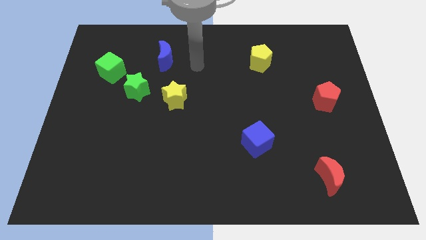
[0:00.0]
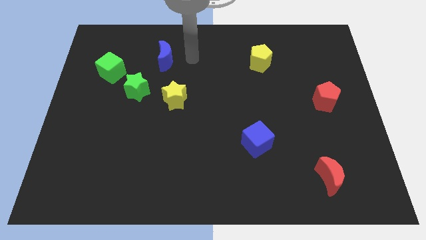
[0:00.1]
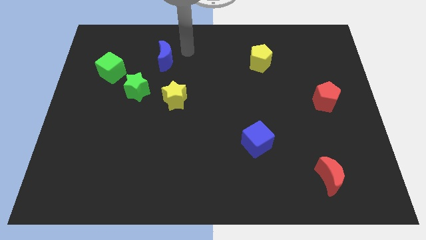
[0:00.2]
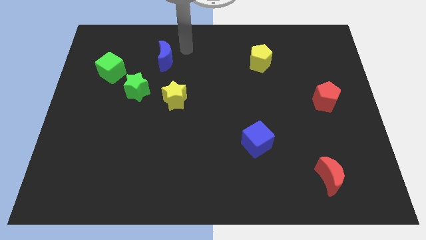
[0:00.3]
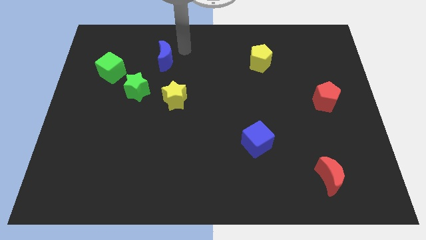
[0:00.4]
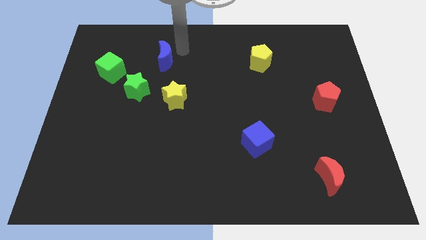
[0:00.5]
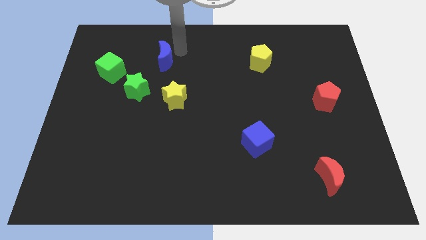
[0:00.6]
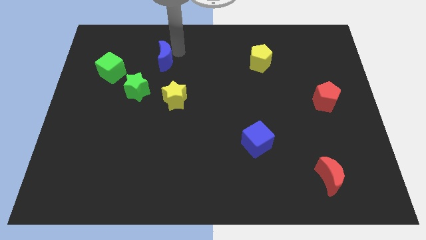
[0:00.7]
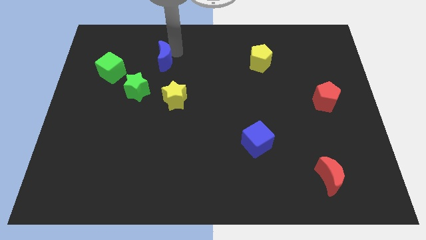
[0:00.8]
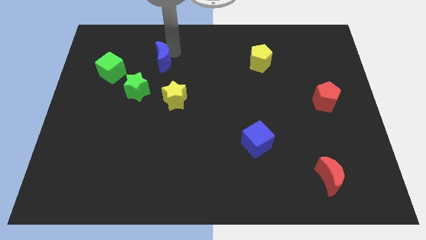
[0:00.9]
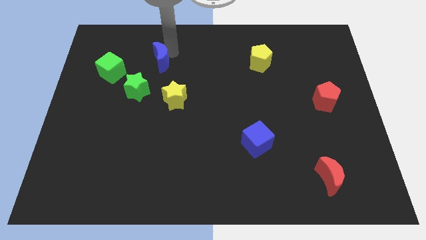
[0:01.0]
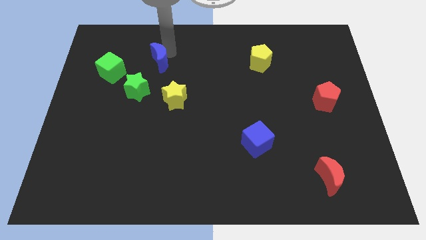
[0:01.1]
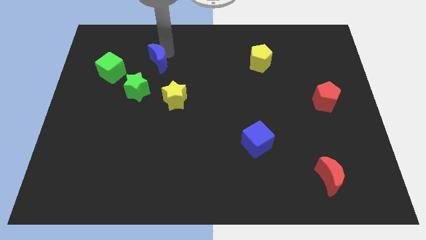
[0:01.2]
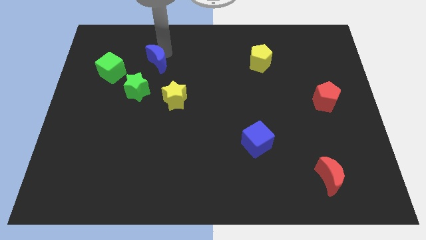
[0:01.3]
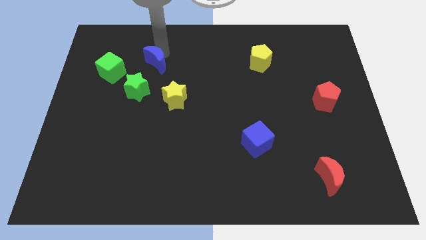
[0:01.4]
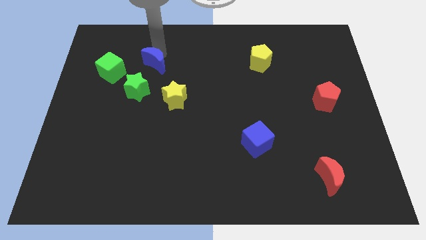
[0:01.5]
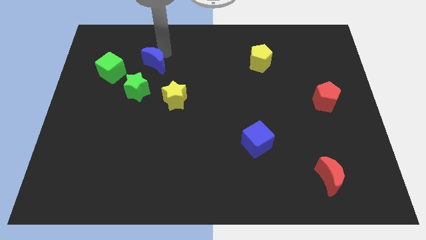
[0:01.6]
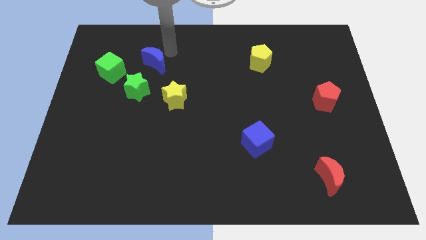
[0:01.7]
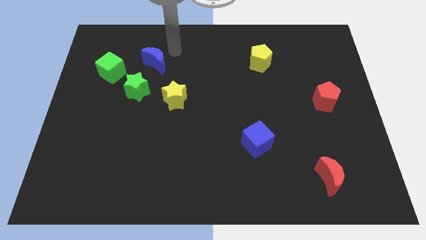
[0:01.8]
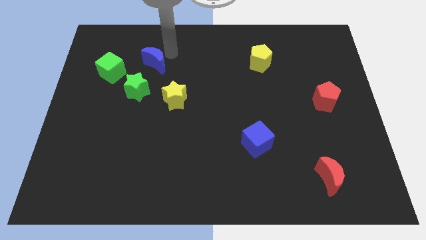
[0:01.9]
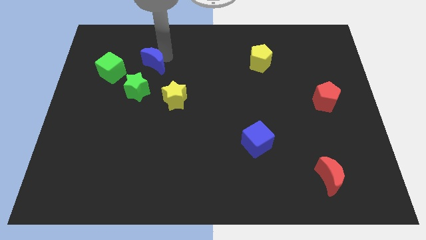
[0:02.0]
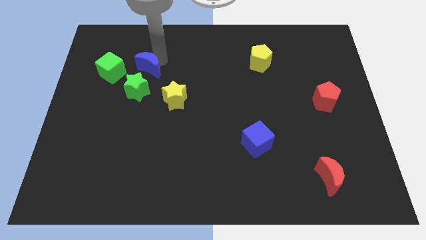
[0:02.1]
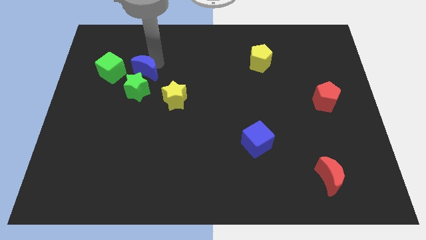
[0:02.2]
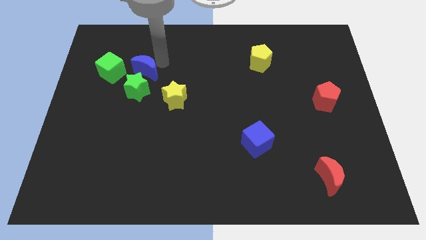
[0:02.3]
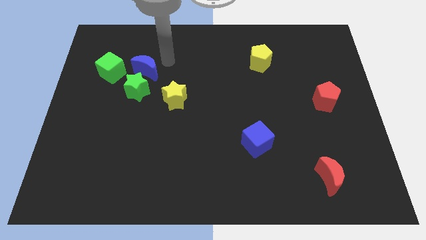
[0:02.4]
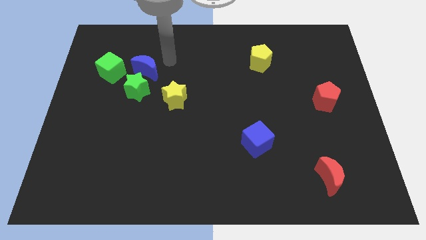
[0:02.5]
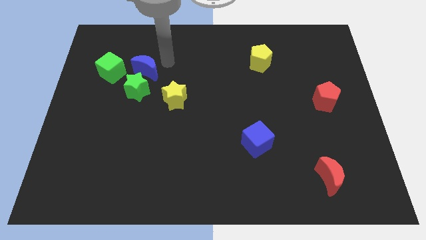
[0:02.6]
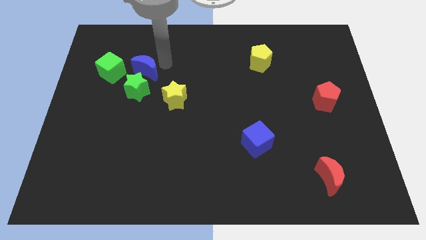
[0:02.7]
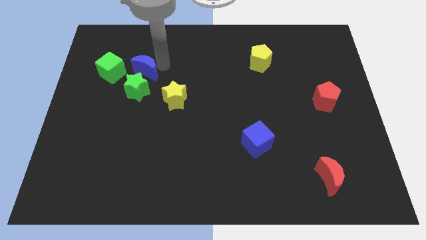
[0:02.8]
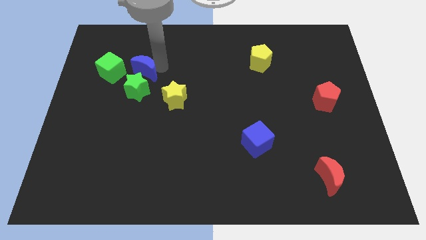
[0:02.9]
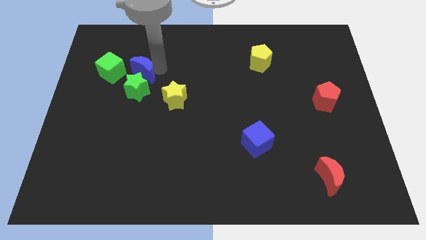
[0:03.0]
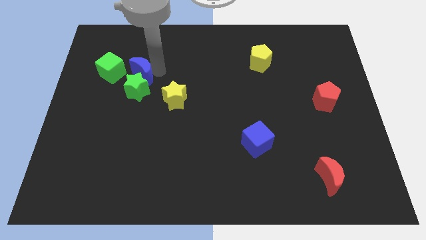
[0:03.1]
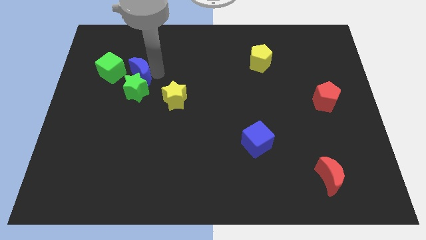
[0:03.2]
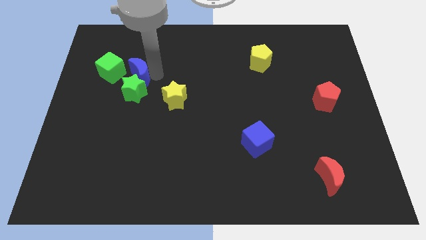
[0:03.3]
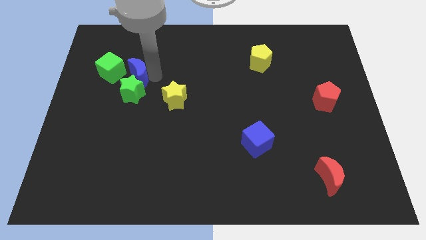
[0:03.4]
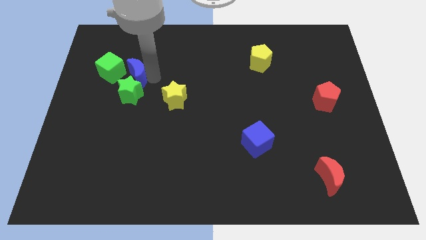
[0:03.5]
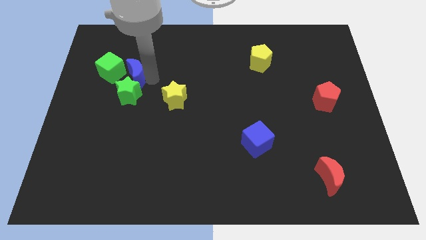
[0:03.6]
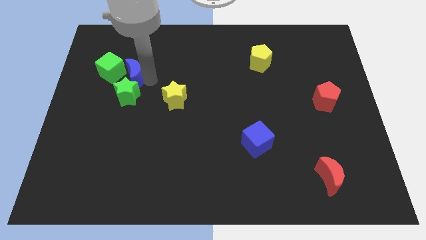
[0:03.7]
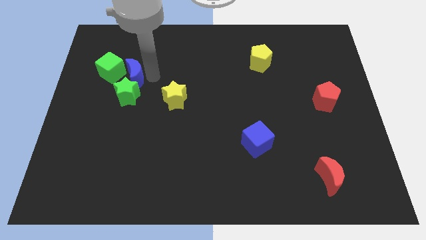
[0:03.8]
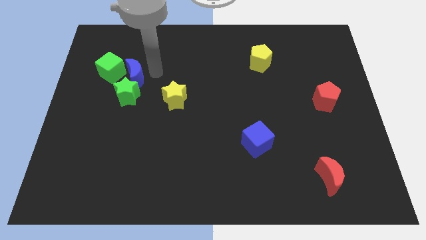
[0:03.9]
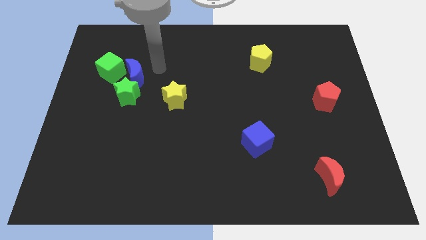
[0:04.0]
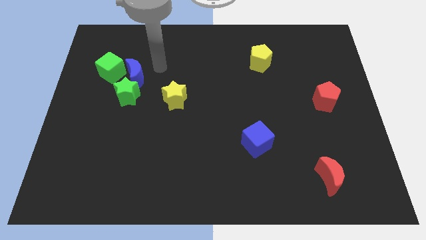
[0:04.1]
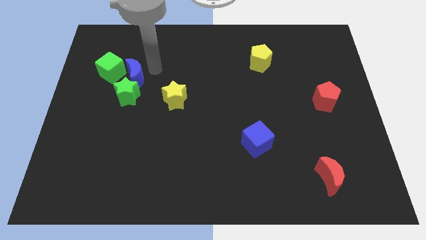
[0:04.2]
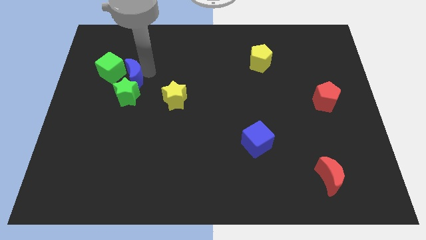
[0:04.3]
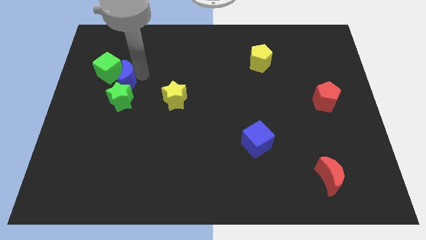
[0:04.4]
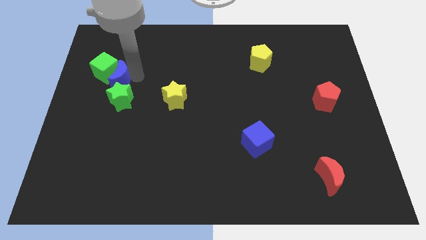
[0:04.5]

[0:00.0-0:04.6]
put the blue moon to the bottom side of the green cube

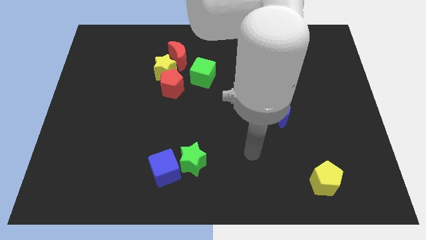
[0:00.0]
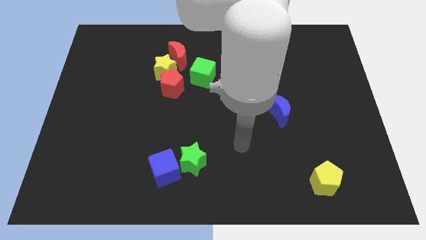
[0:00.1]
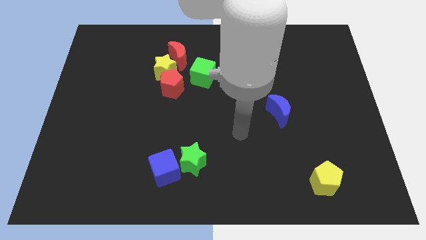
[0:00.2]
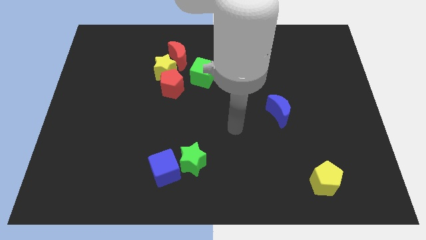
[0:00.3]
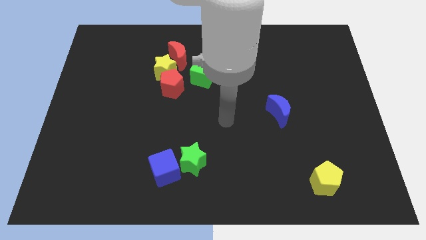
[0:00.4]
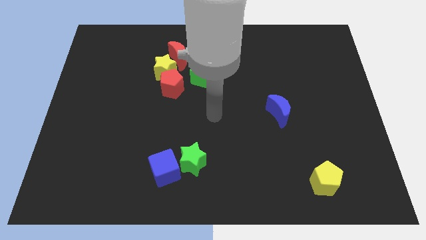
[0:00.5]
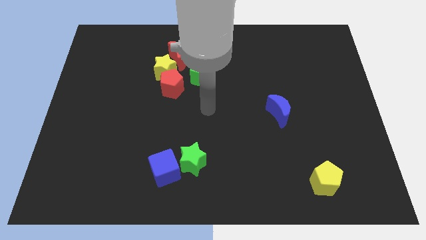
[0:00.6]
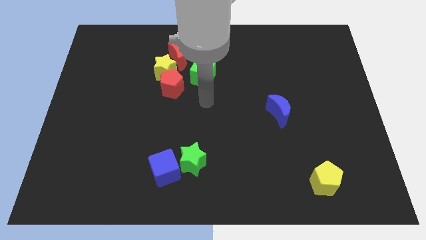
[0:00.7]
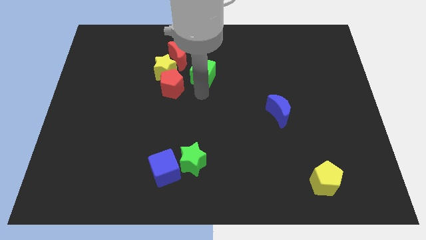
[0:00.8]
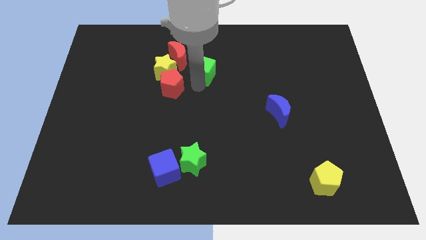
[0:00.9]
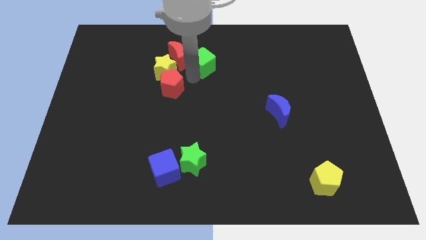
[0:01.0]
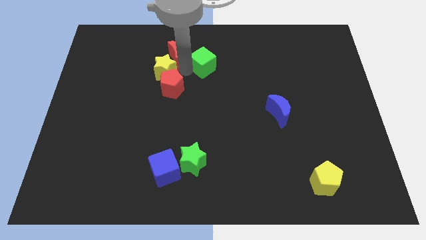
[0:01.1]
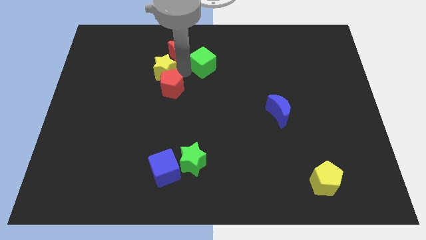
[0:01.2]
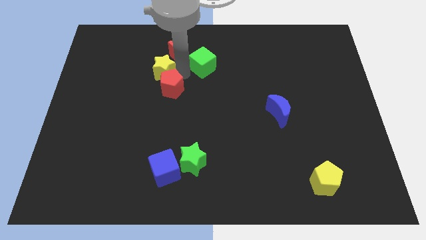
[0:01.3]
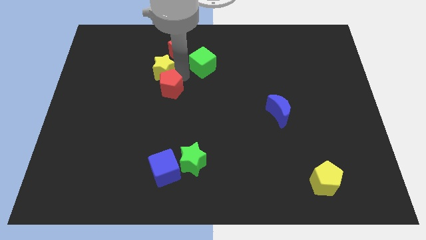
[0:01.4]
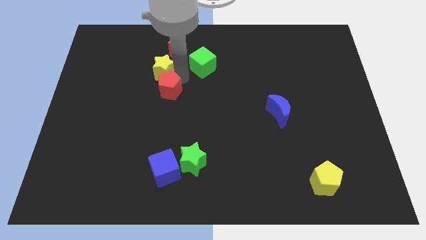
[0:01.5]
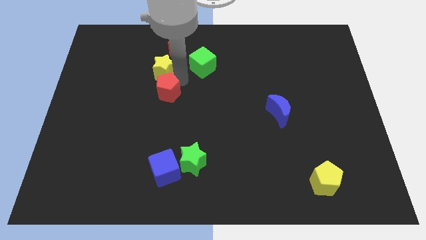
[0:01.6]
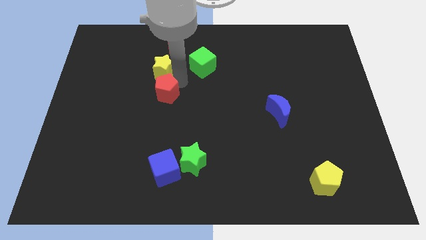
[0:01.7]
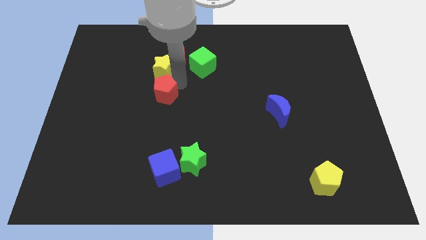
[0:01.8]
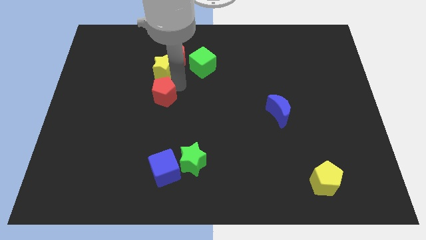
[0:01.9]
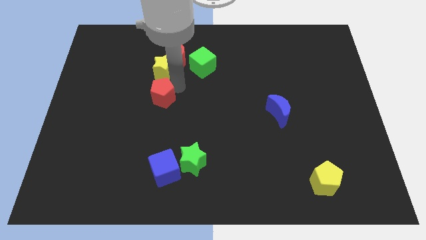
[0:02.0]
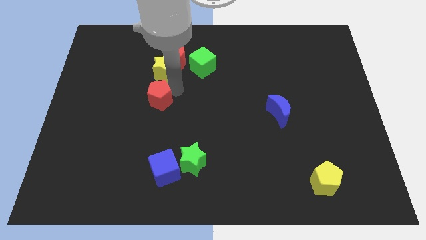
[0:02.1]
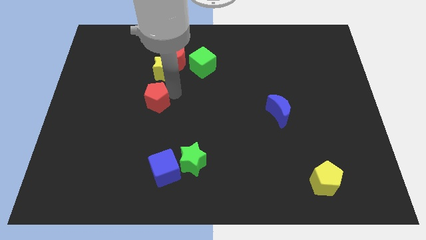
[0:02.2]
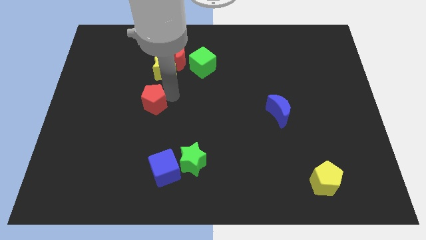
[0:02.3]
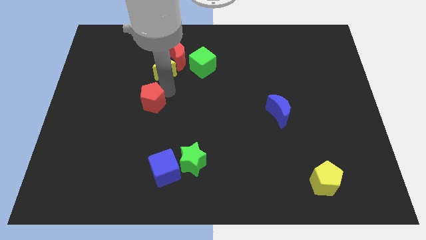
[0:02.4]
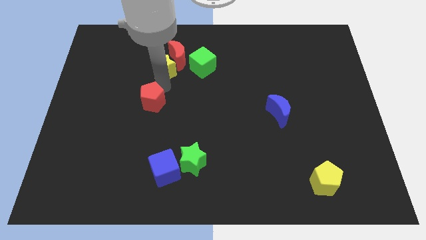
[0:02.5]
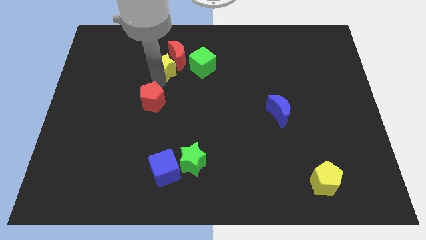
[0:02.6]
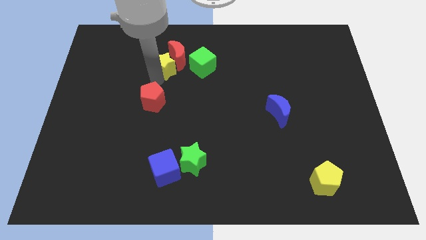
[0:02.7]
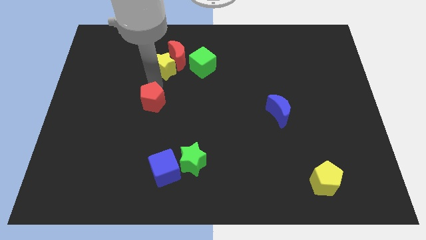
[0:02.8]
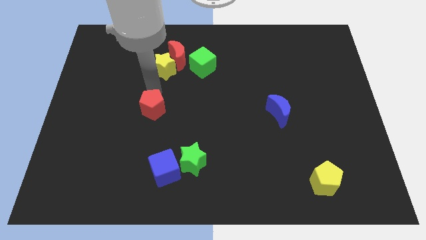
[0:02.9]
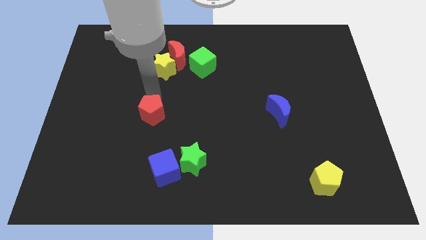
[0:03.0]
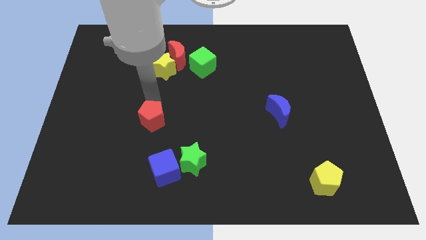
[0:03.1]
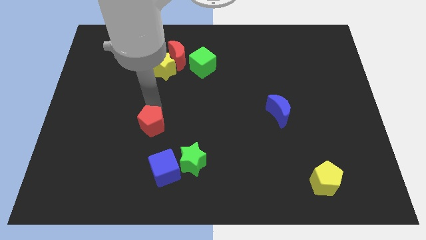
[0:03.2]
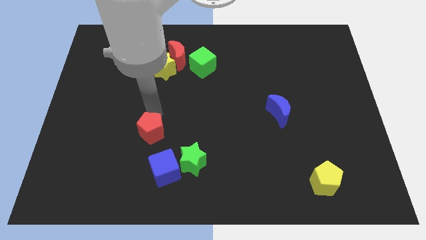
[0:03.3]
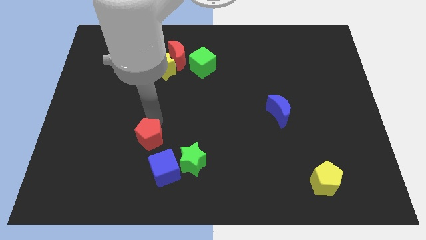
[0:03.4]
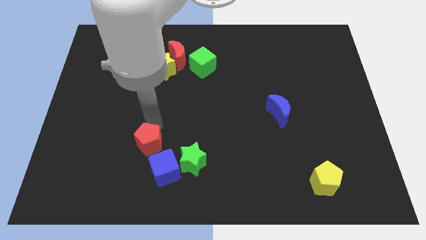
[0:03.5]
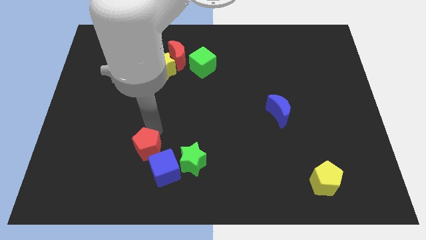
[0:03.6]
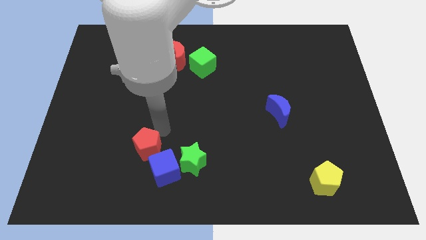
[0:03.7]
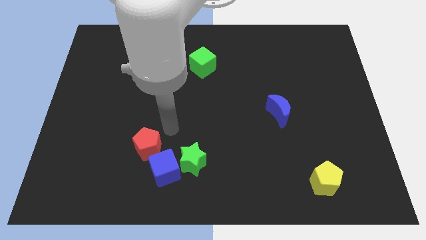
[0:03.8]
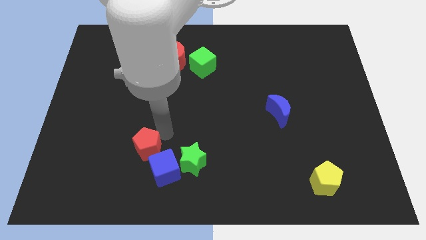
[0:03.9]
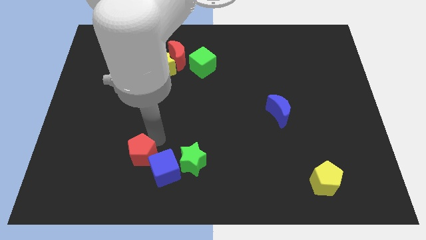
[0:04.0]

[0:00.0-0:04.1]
push the red pentagon just left of the blue cube
